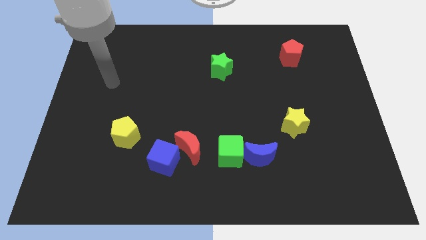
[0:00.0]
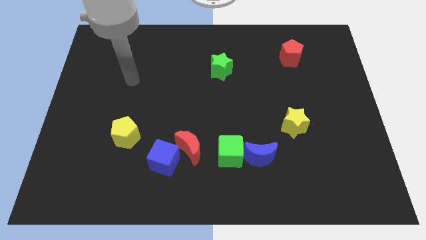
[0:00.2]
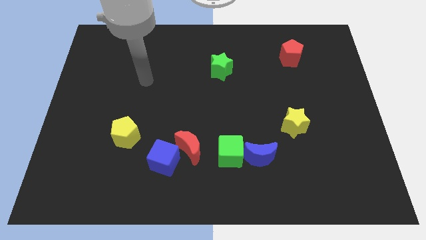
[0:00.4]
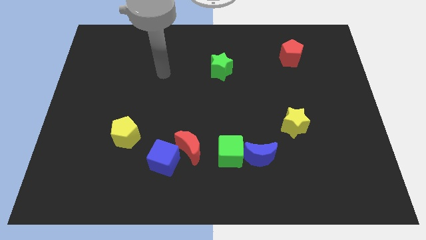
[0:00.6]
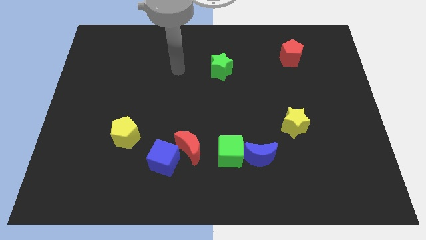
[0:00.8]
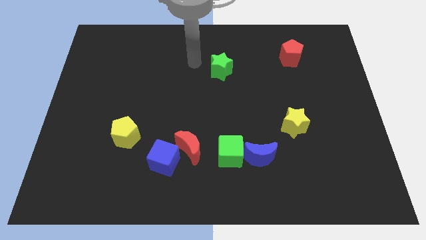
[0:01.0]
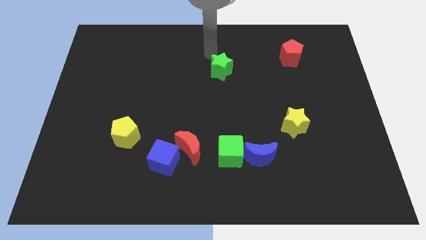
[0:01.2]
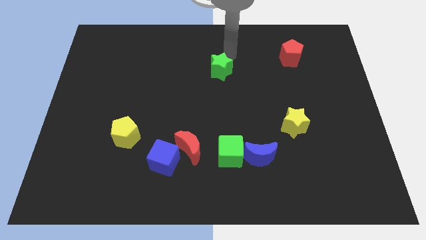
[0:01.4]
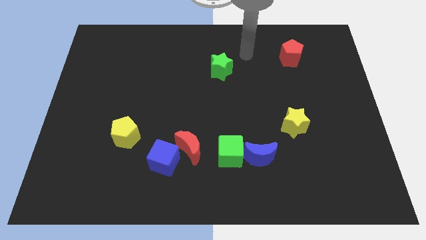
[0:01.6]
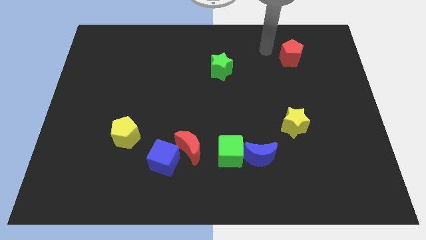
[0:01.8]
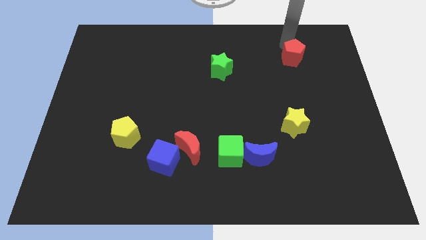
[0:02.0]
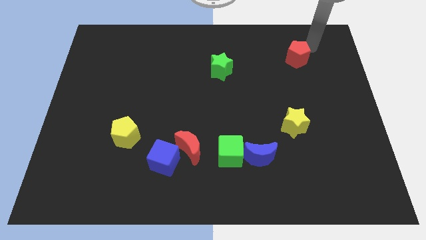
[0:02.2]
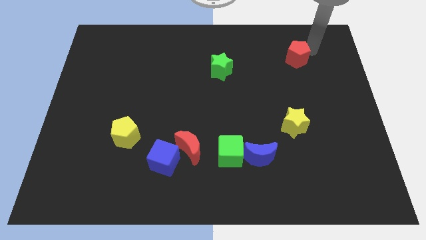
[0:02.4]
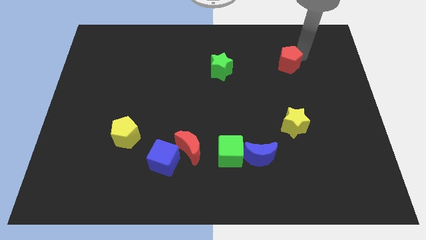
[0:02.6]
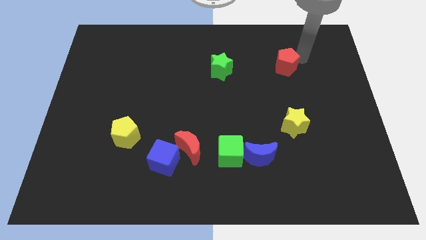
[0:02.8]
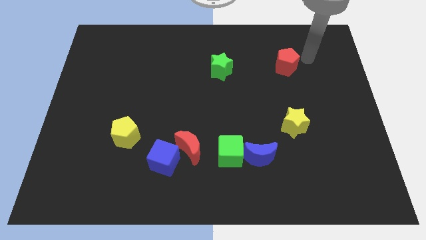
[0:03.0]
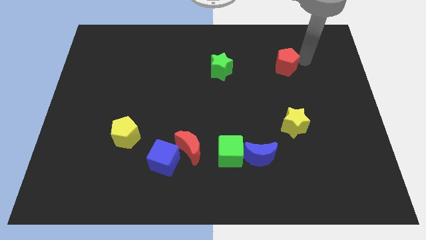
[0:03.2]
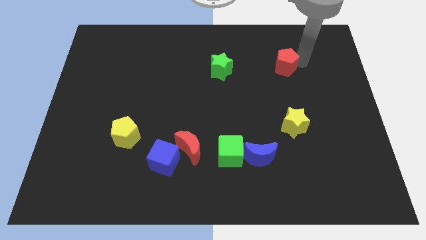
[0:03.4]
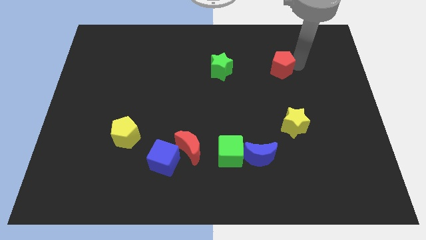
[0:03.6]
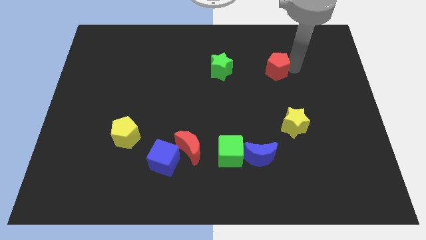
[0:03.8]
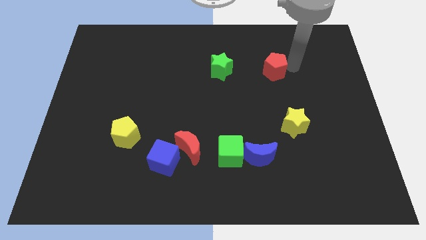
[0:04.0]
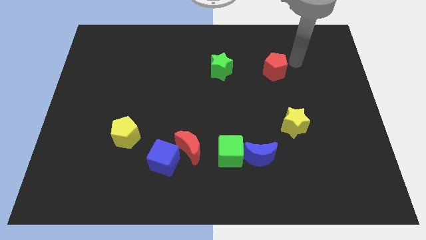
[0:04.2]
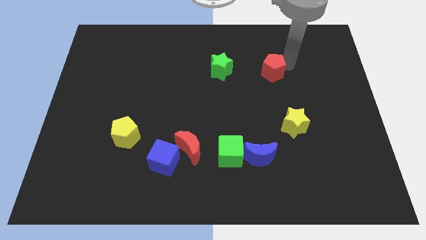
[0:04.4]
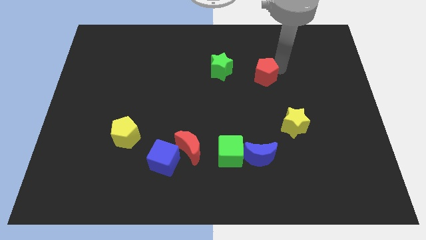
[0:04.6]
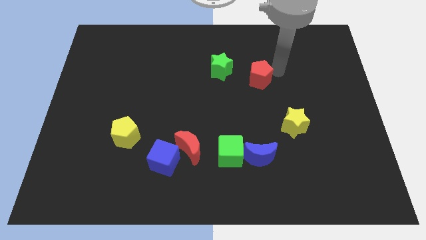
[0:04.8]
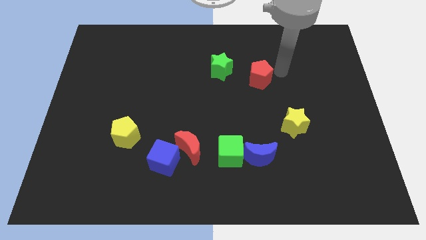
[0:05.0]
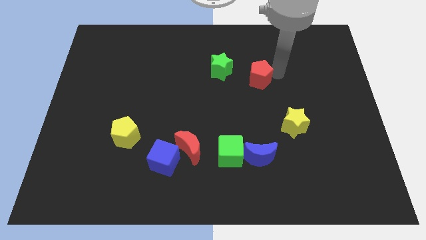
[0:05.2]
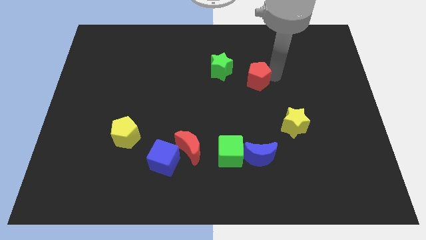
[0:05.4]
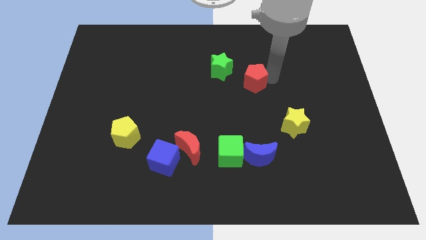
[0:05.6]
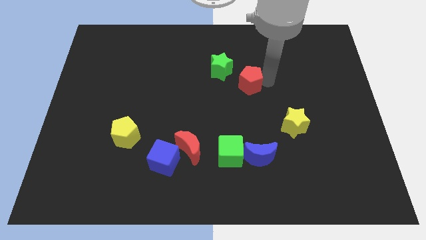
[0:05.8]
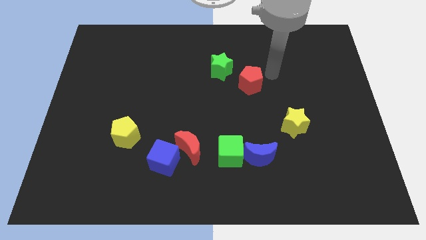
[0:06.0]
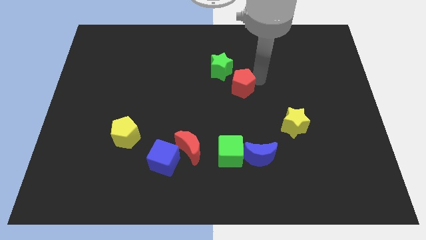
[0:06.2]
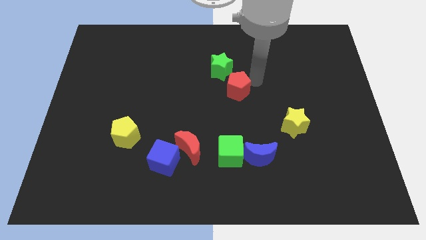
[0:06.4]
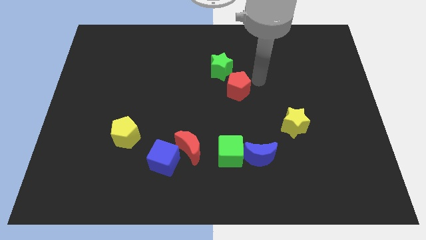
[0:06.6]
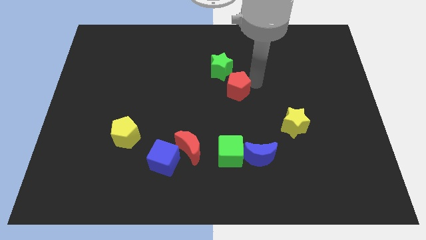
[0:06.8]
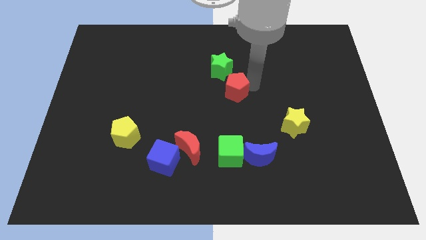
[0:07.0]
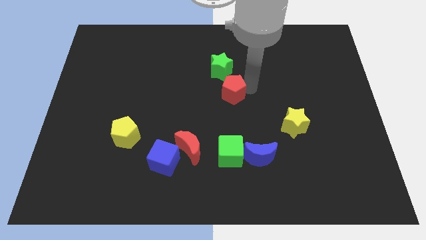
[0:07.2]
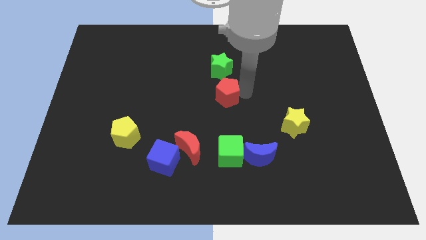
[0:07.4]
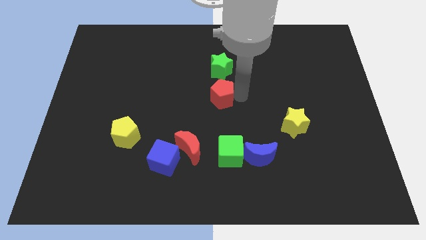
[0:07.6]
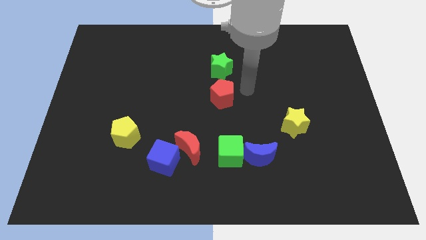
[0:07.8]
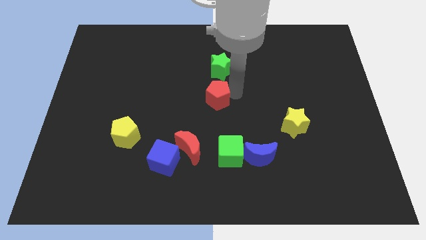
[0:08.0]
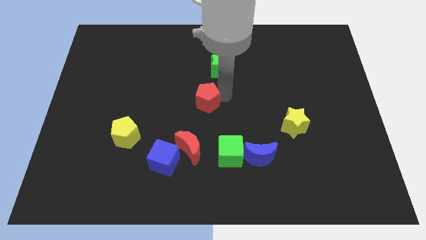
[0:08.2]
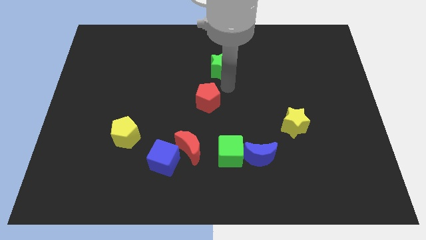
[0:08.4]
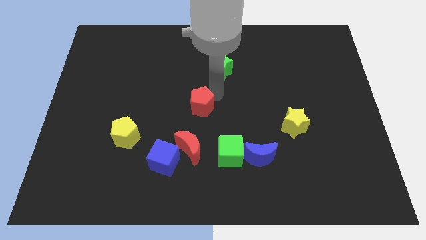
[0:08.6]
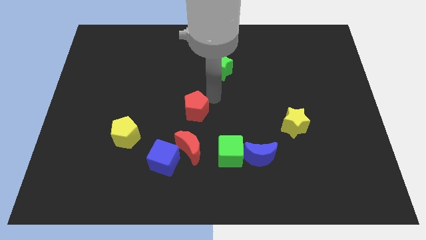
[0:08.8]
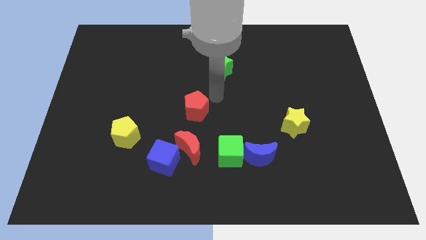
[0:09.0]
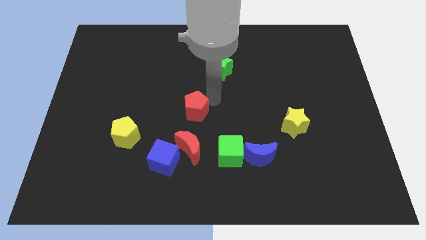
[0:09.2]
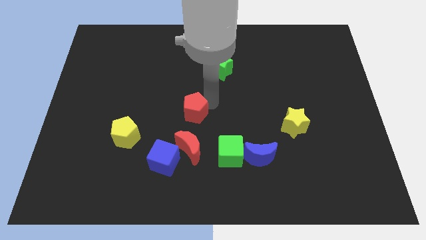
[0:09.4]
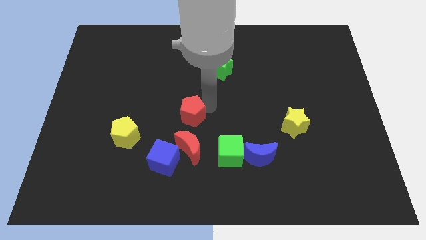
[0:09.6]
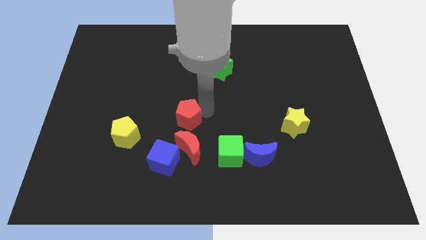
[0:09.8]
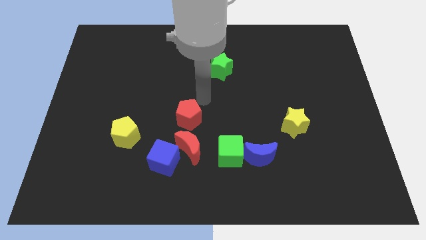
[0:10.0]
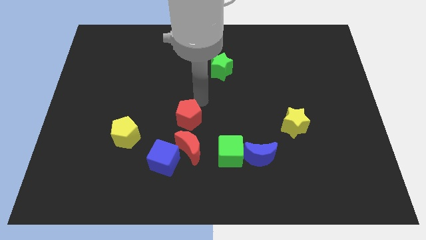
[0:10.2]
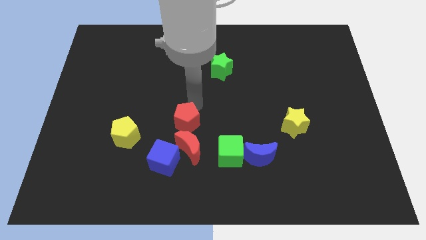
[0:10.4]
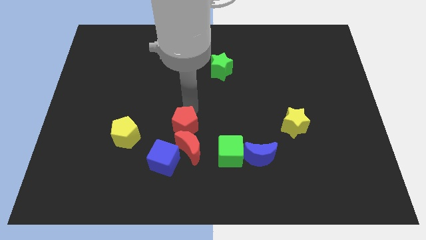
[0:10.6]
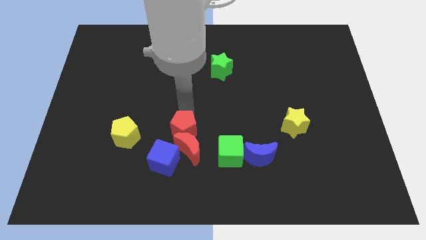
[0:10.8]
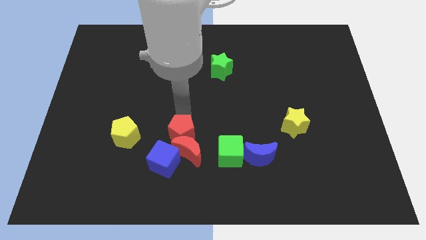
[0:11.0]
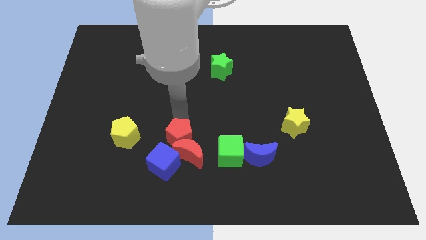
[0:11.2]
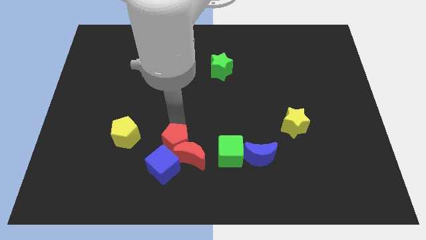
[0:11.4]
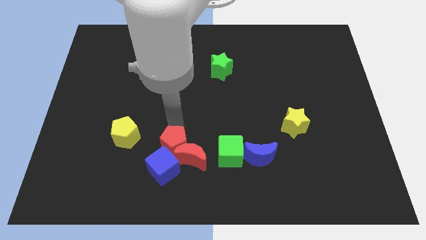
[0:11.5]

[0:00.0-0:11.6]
push the red pentagon towards the blue cube
